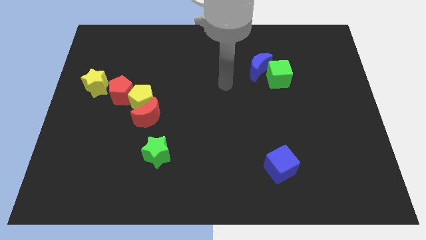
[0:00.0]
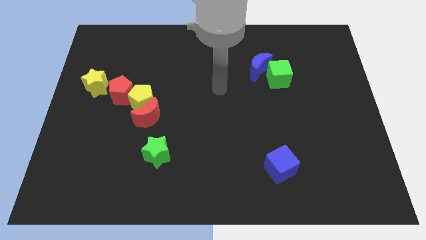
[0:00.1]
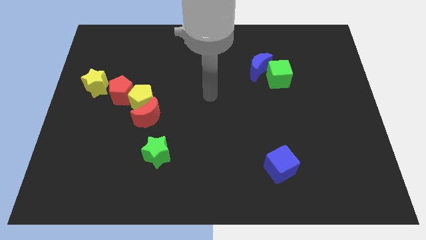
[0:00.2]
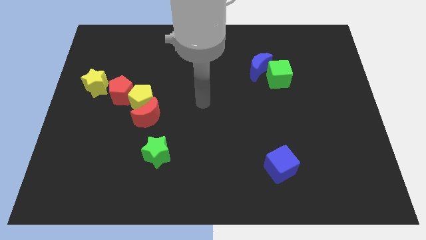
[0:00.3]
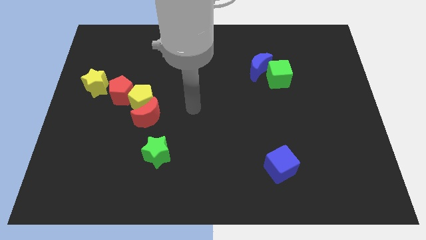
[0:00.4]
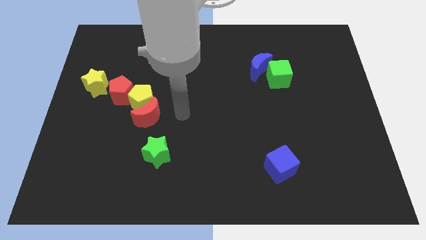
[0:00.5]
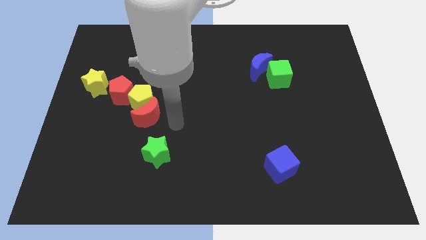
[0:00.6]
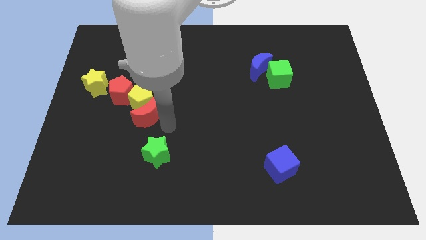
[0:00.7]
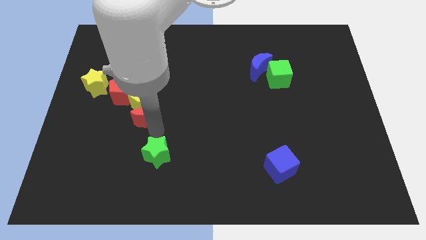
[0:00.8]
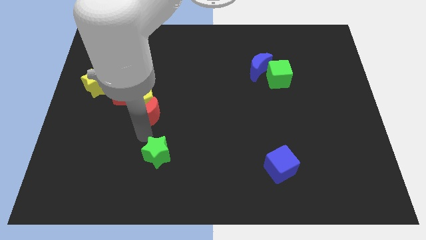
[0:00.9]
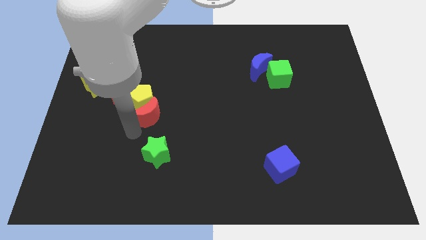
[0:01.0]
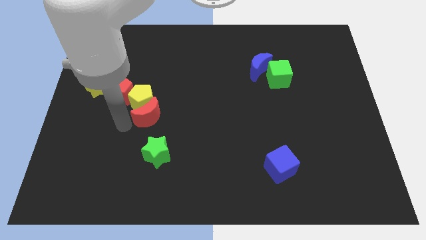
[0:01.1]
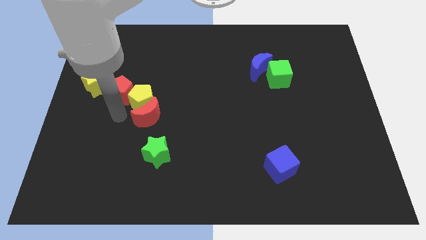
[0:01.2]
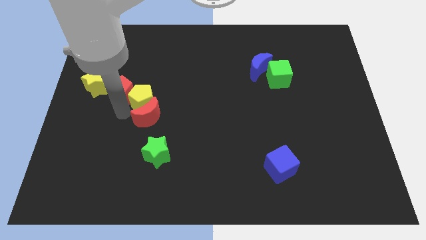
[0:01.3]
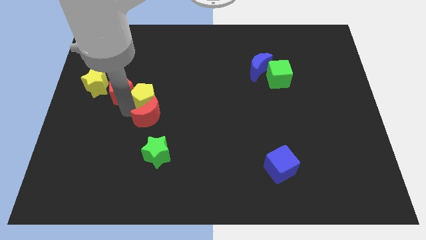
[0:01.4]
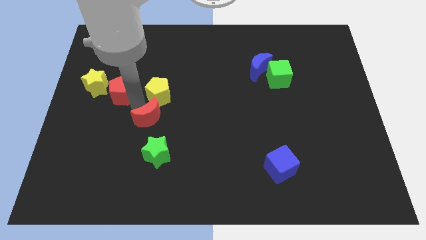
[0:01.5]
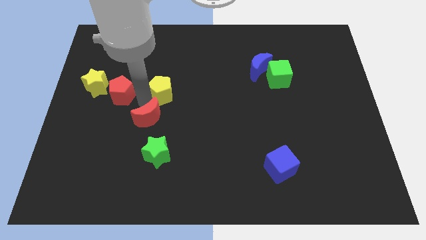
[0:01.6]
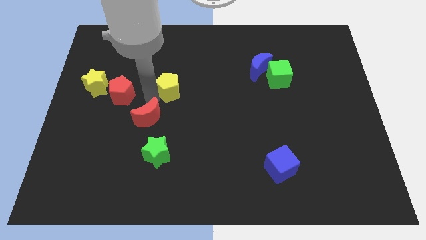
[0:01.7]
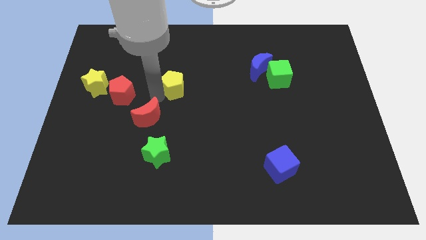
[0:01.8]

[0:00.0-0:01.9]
separate the yellow pentagon from the red moon and red pentagon

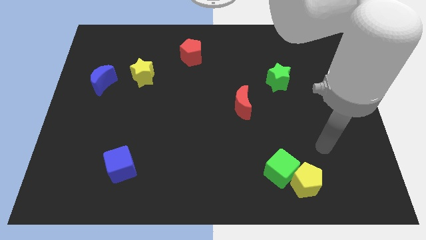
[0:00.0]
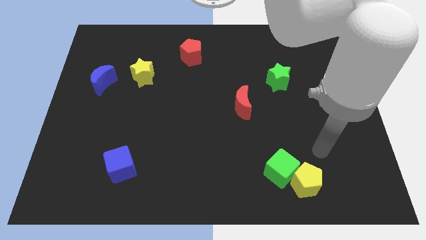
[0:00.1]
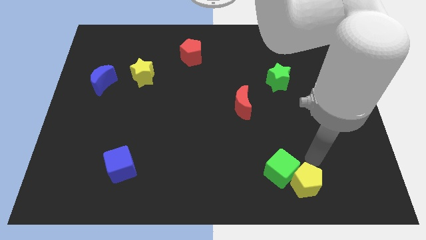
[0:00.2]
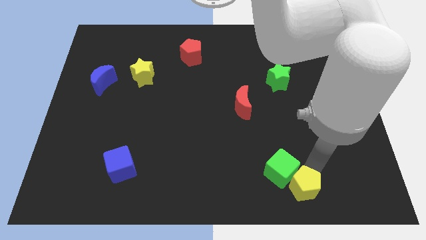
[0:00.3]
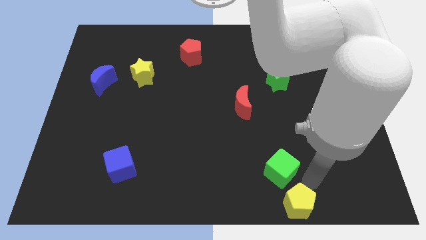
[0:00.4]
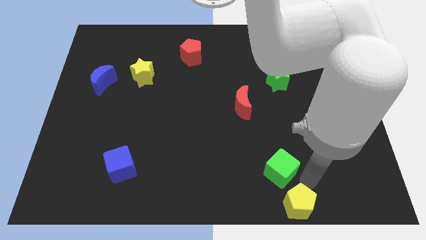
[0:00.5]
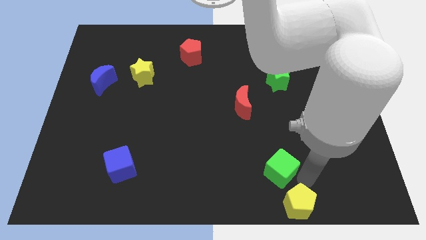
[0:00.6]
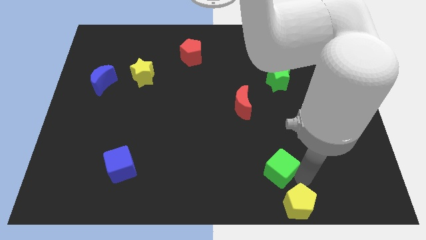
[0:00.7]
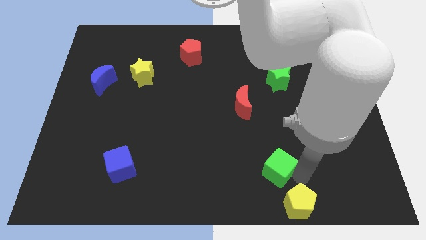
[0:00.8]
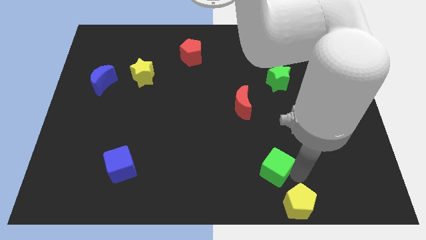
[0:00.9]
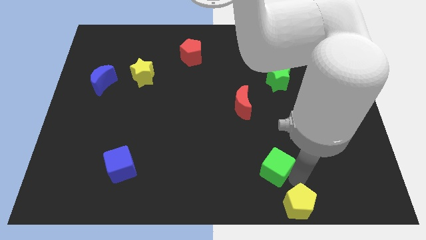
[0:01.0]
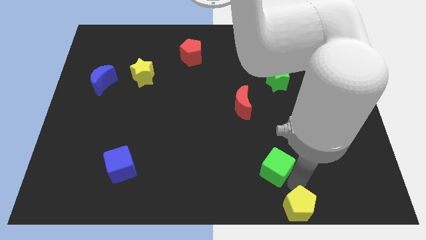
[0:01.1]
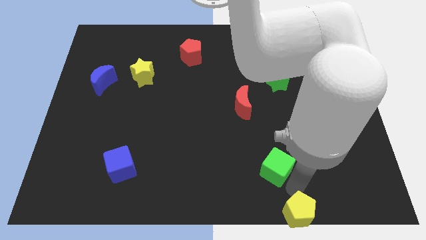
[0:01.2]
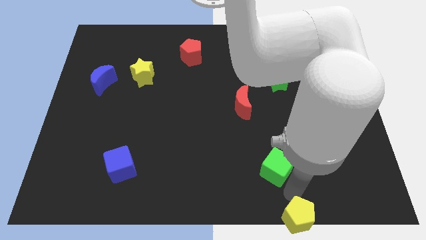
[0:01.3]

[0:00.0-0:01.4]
move the green cube away from the yellow pentagon

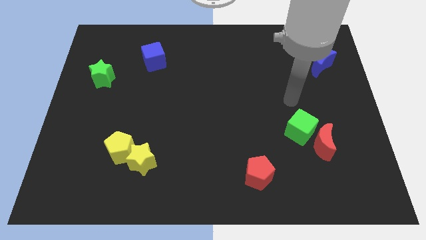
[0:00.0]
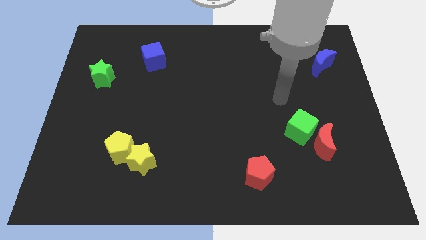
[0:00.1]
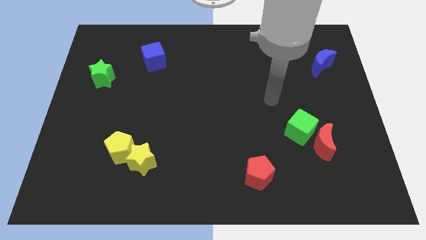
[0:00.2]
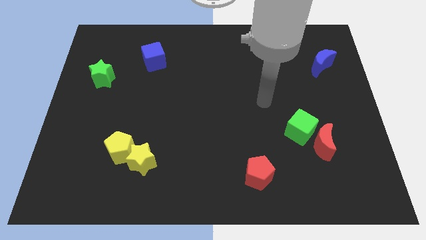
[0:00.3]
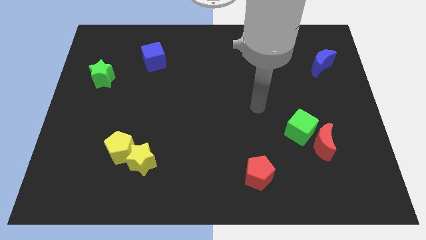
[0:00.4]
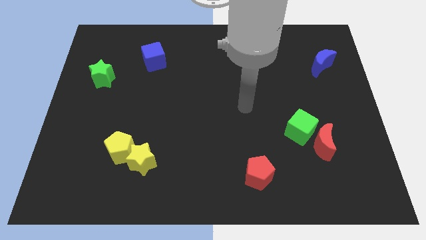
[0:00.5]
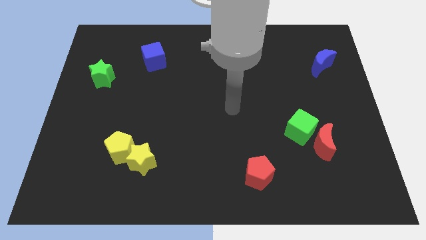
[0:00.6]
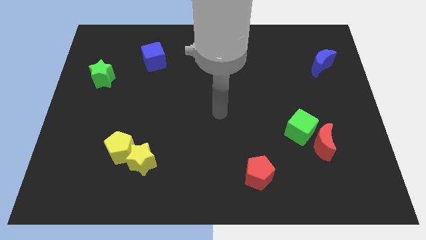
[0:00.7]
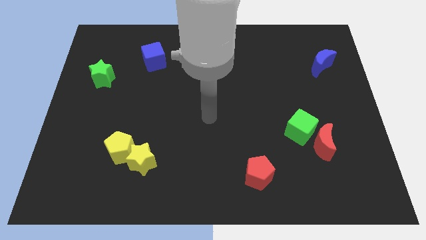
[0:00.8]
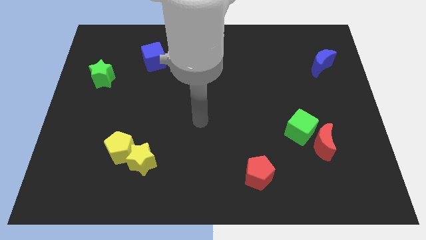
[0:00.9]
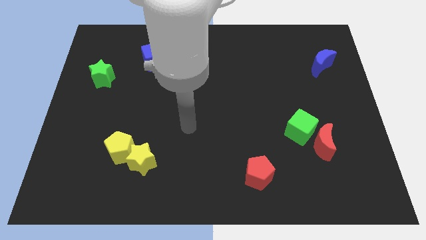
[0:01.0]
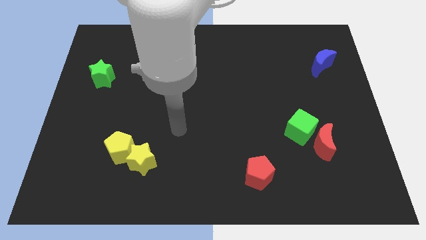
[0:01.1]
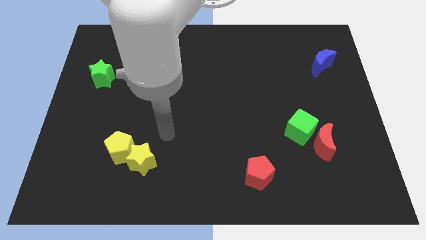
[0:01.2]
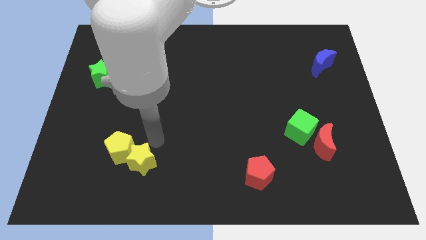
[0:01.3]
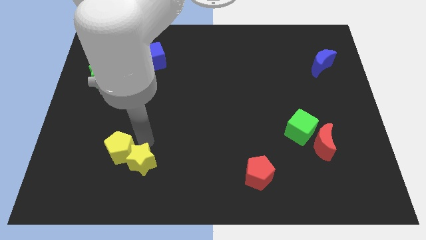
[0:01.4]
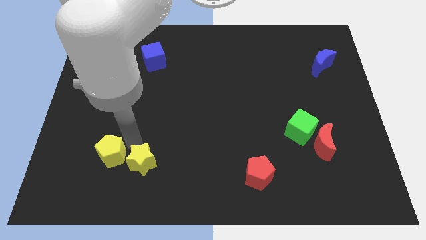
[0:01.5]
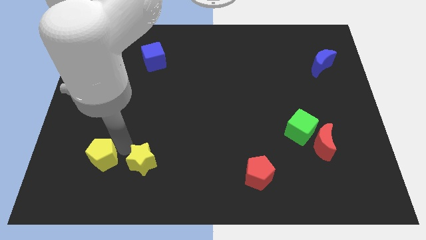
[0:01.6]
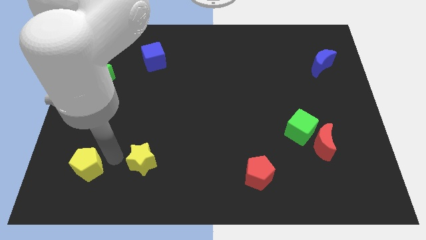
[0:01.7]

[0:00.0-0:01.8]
separate the yellow star from the yellow pentagon

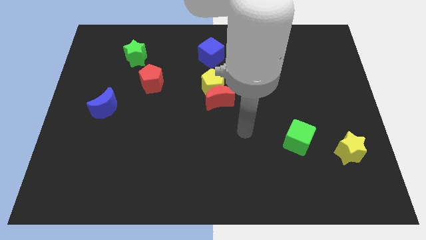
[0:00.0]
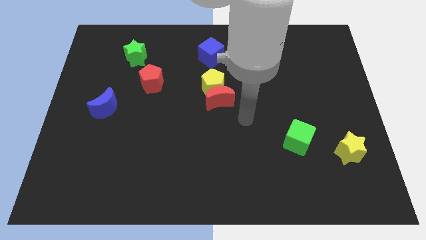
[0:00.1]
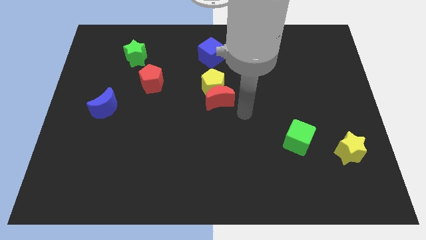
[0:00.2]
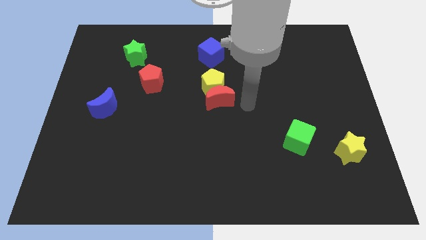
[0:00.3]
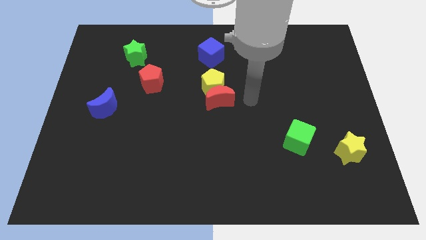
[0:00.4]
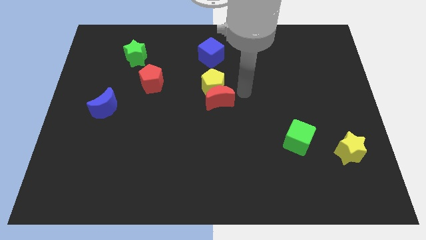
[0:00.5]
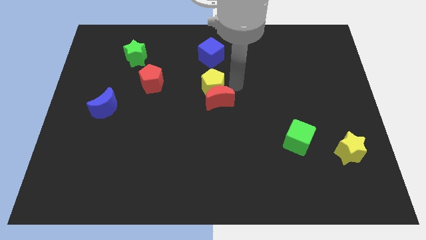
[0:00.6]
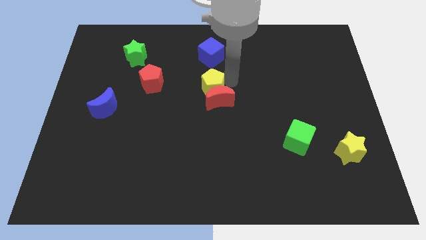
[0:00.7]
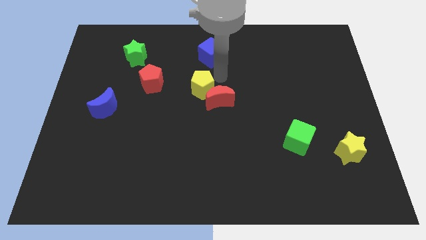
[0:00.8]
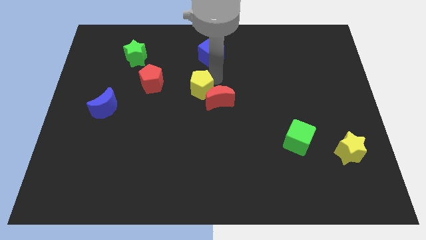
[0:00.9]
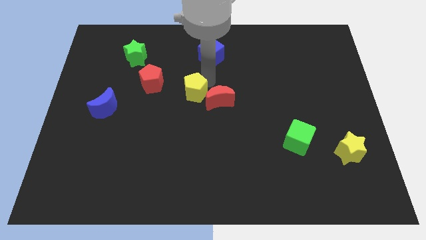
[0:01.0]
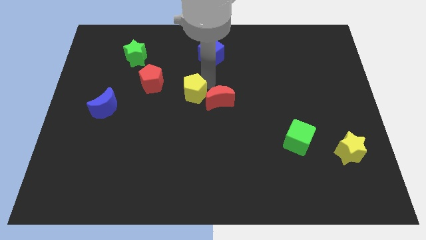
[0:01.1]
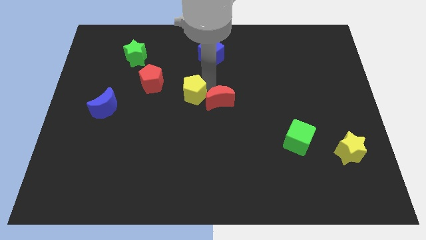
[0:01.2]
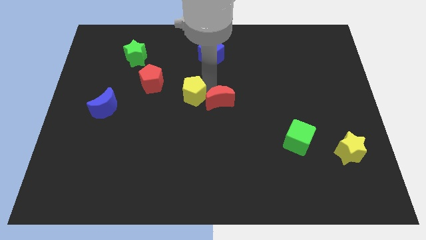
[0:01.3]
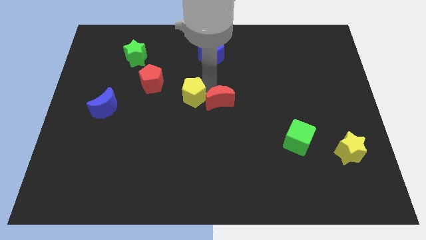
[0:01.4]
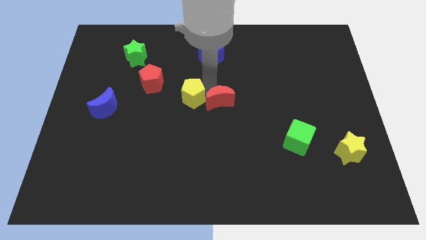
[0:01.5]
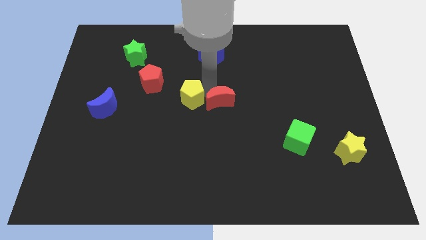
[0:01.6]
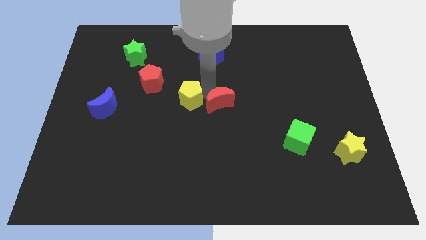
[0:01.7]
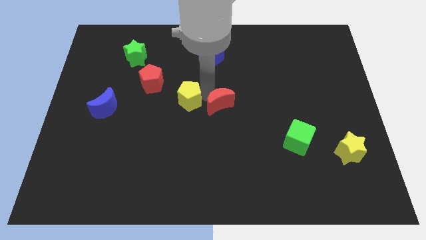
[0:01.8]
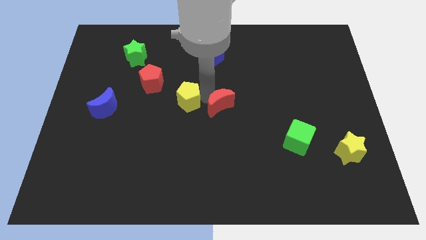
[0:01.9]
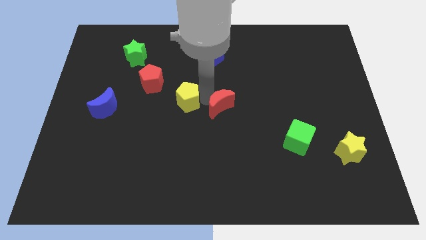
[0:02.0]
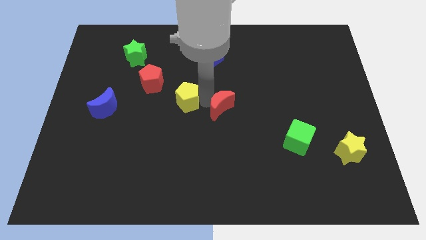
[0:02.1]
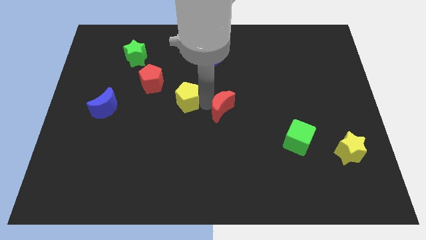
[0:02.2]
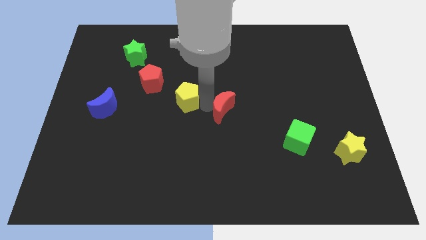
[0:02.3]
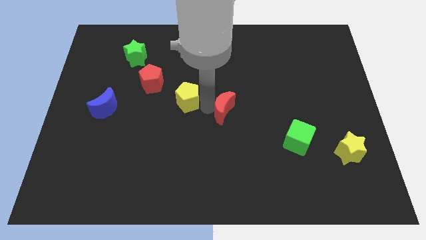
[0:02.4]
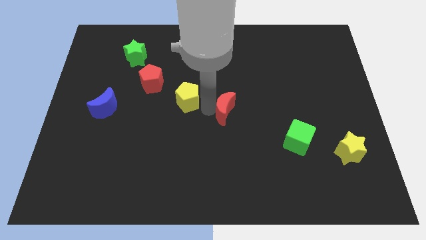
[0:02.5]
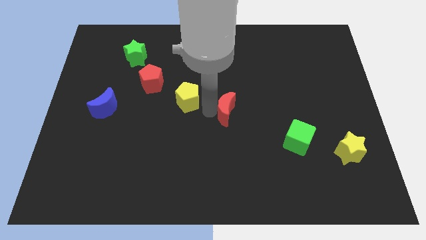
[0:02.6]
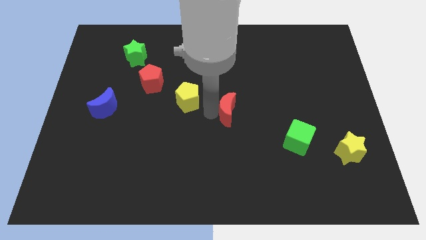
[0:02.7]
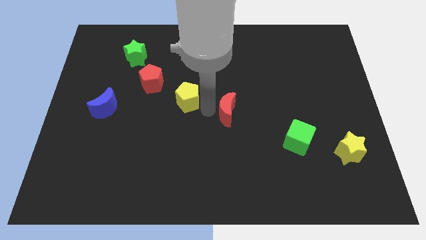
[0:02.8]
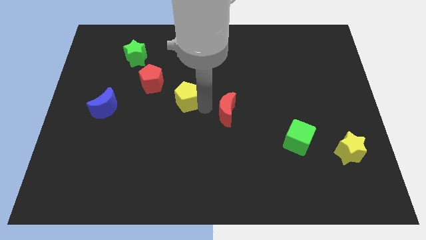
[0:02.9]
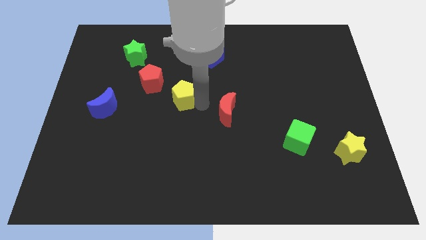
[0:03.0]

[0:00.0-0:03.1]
separate the red moon from the yellow pentagon

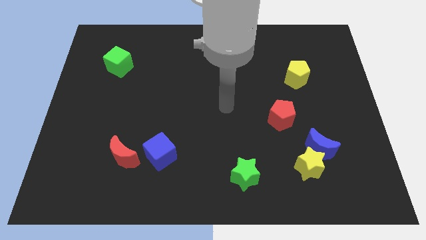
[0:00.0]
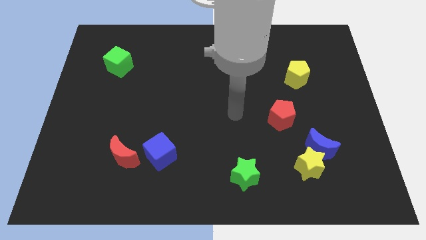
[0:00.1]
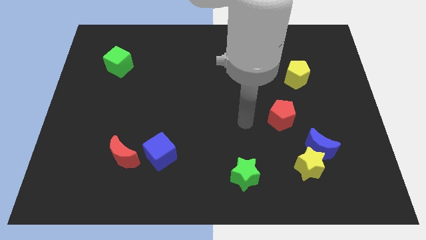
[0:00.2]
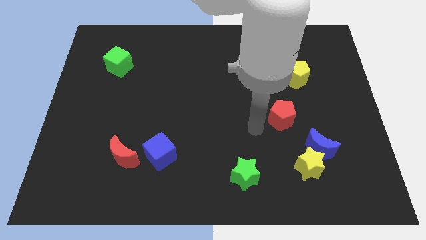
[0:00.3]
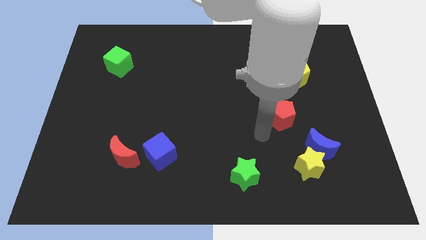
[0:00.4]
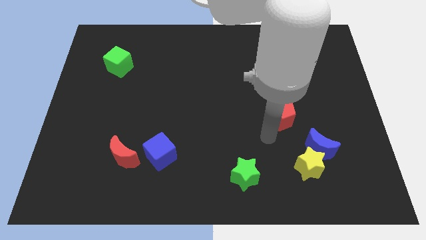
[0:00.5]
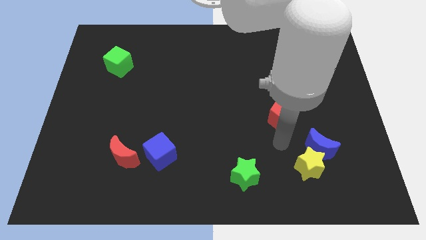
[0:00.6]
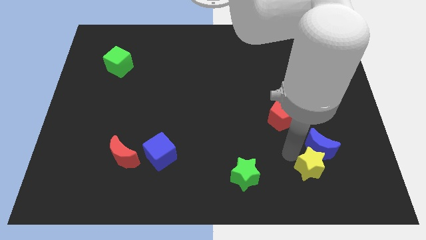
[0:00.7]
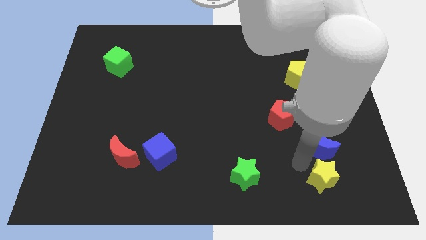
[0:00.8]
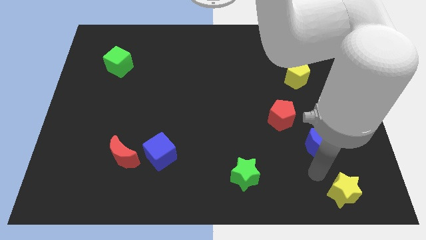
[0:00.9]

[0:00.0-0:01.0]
separate the blue moon from the yellow star

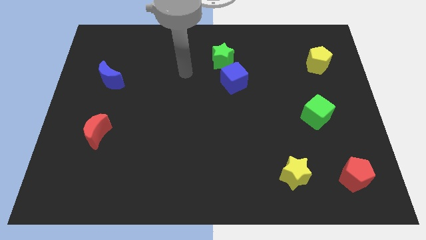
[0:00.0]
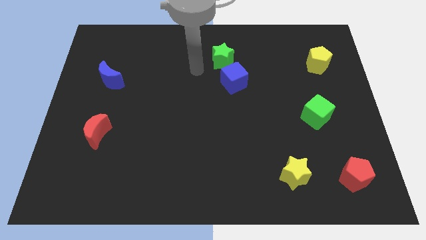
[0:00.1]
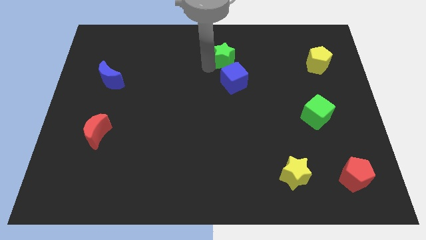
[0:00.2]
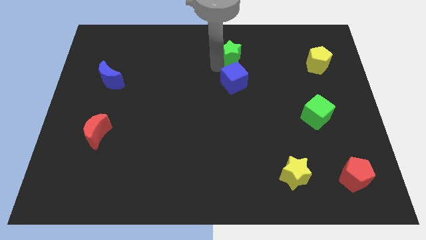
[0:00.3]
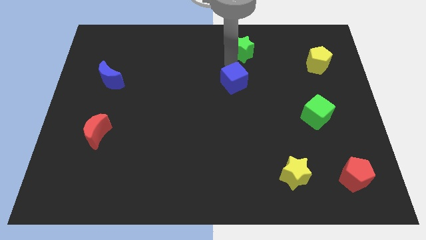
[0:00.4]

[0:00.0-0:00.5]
pull the blue cube apart from the green star
